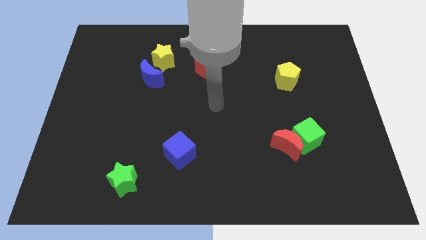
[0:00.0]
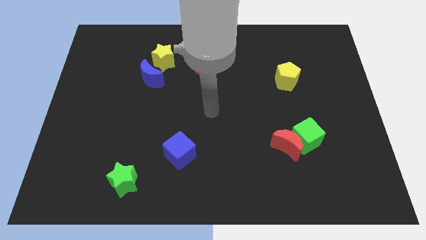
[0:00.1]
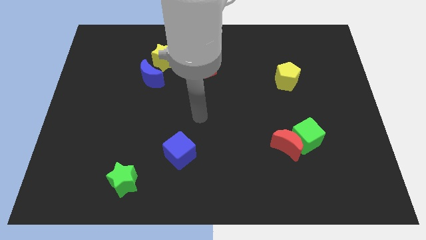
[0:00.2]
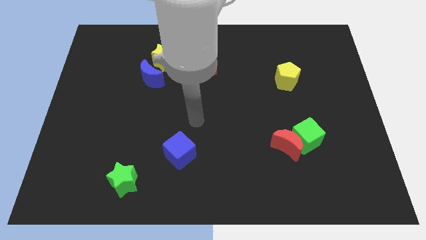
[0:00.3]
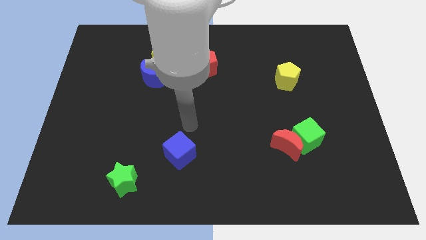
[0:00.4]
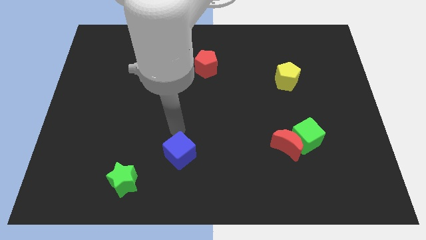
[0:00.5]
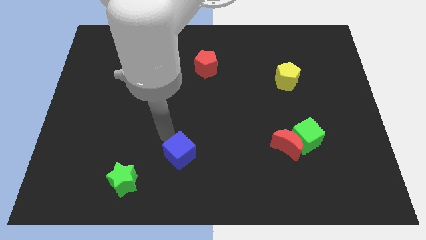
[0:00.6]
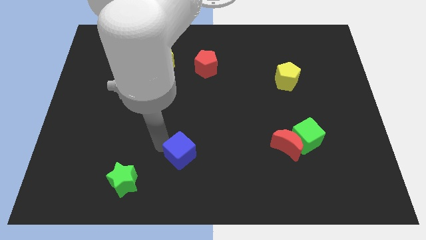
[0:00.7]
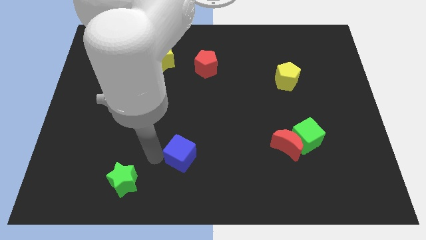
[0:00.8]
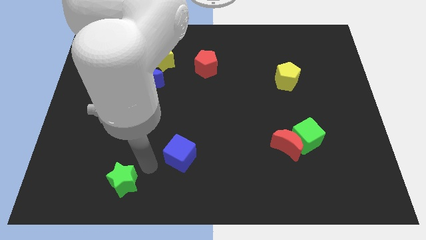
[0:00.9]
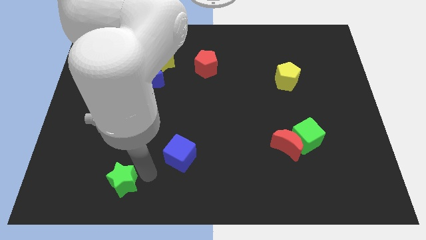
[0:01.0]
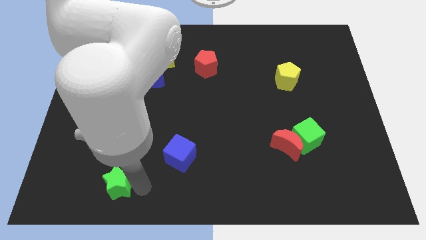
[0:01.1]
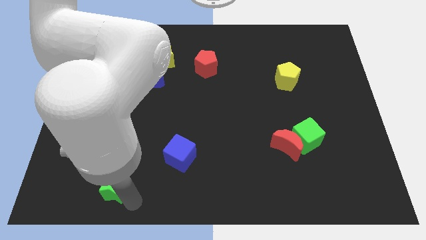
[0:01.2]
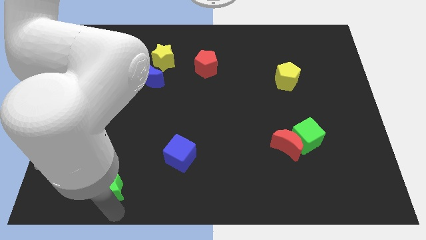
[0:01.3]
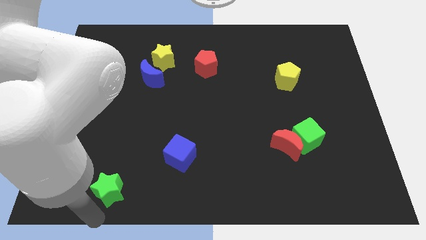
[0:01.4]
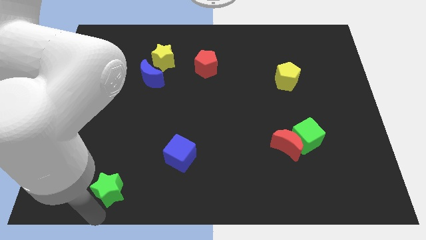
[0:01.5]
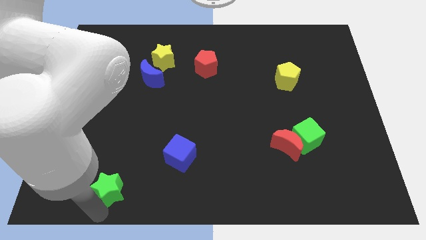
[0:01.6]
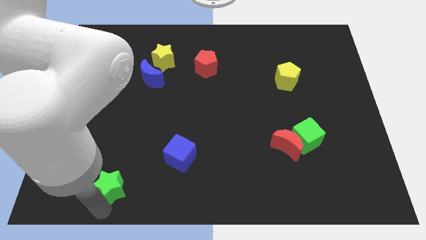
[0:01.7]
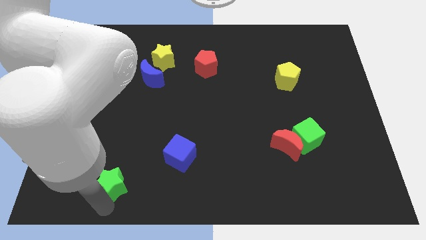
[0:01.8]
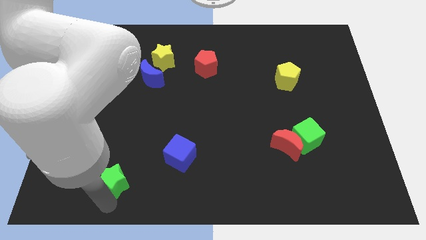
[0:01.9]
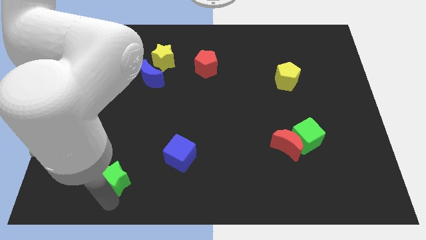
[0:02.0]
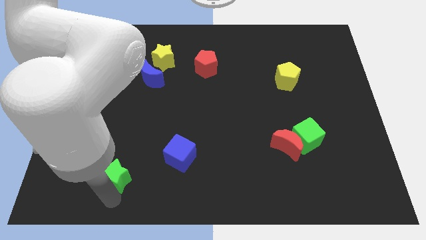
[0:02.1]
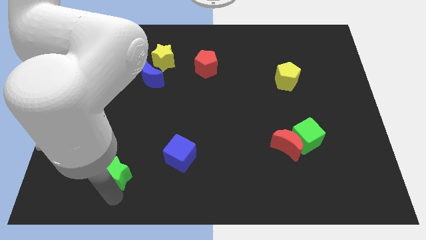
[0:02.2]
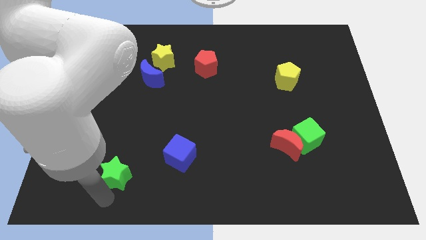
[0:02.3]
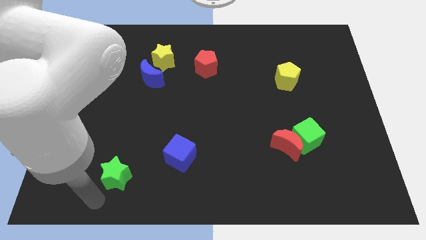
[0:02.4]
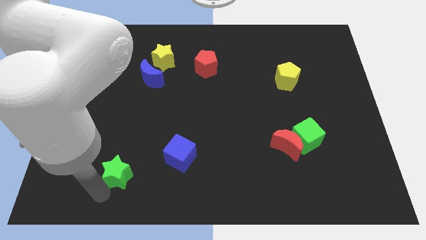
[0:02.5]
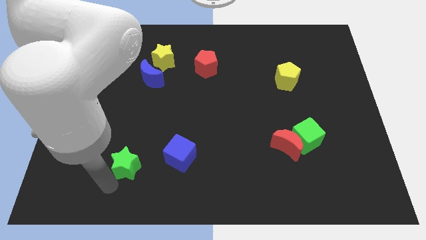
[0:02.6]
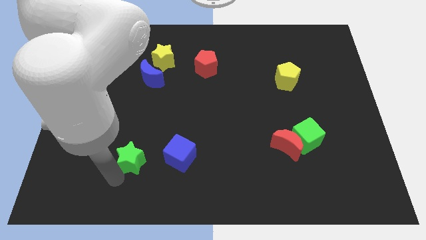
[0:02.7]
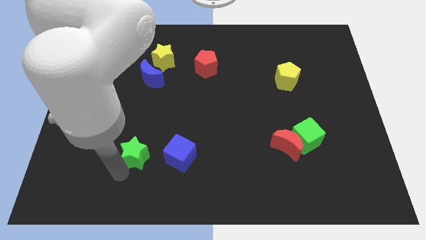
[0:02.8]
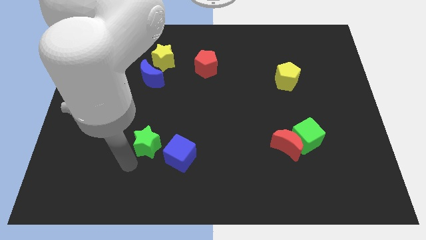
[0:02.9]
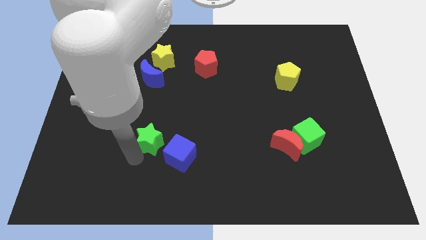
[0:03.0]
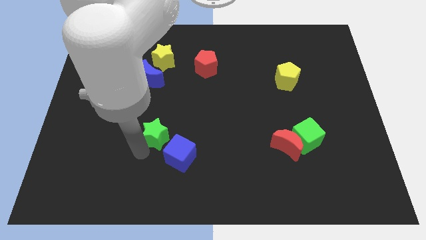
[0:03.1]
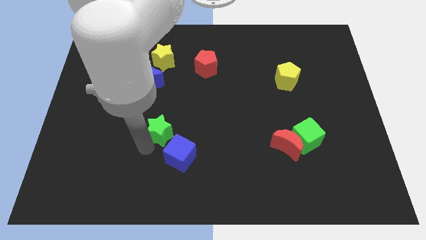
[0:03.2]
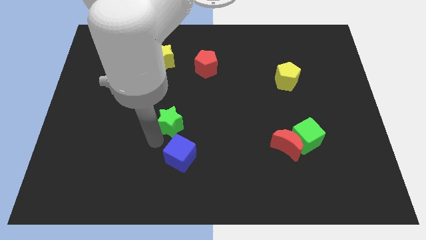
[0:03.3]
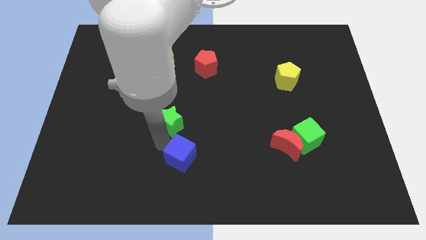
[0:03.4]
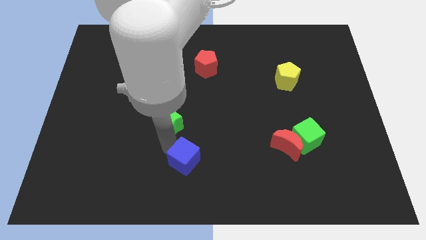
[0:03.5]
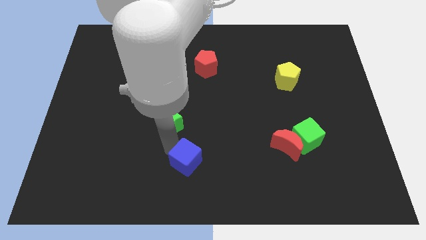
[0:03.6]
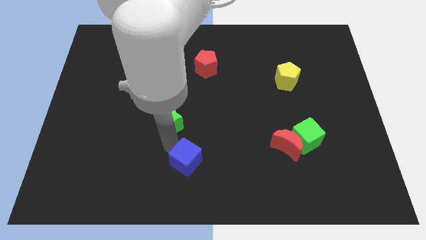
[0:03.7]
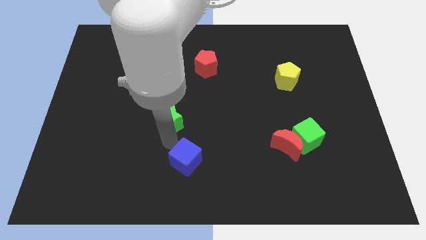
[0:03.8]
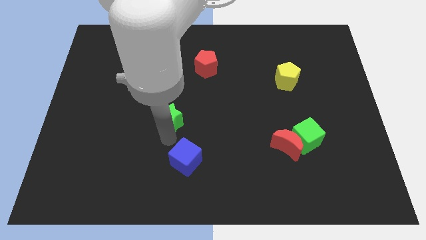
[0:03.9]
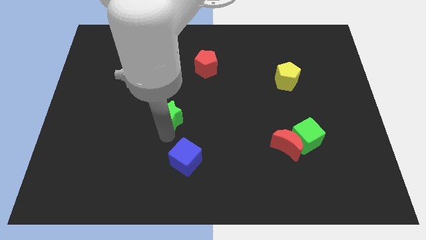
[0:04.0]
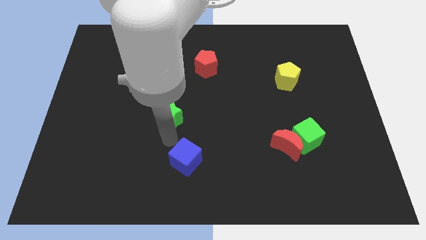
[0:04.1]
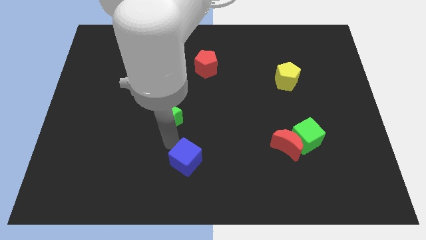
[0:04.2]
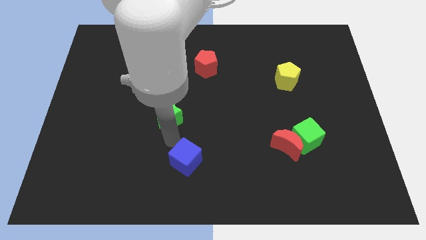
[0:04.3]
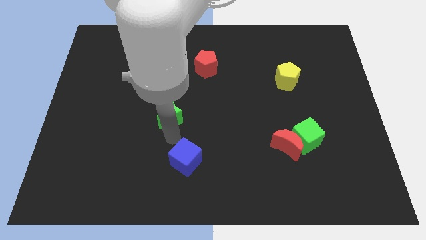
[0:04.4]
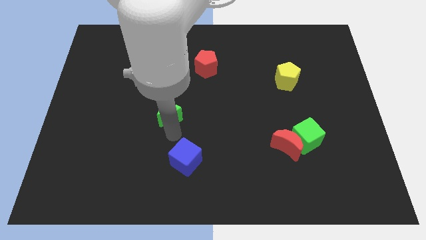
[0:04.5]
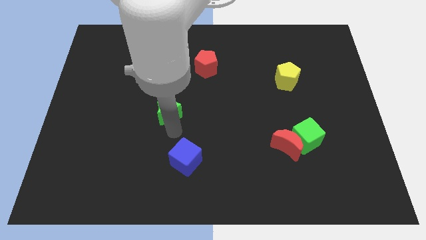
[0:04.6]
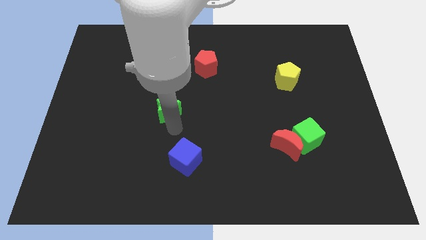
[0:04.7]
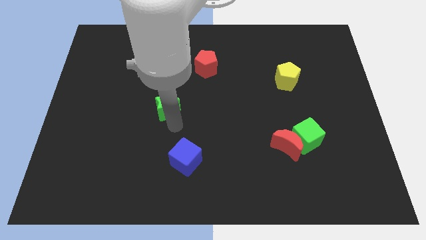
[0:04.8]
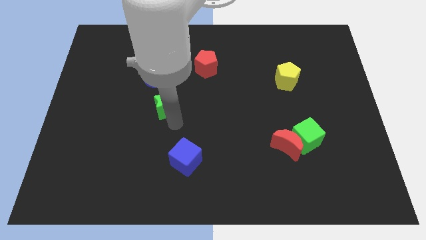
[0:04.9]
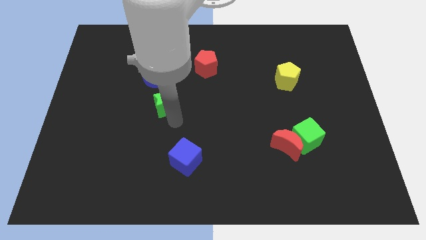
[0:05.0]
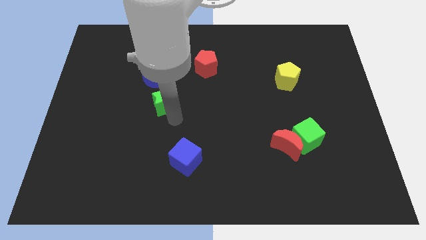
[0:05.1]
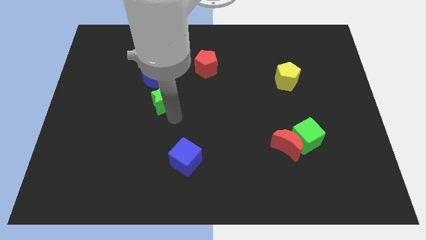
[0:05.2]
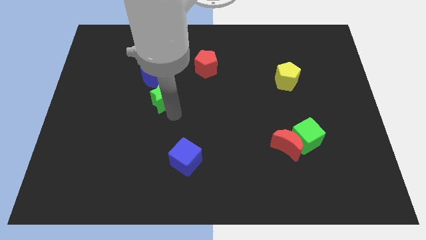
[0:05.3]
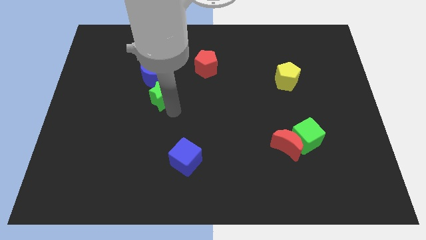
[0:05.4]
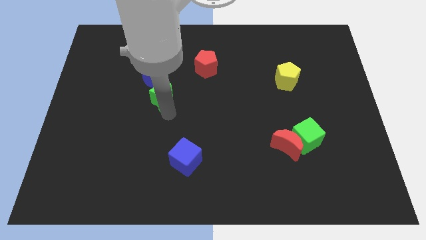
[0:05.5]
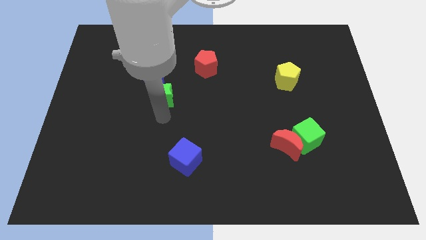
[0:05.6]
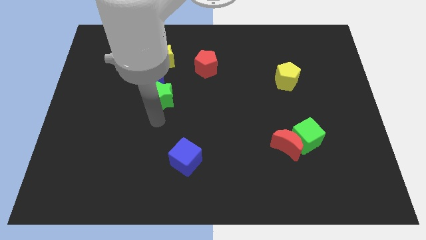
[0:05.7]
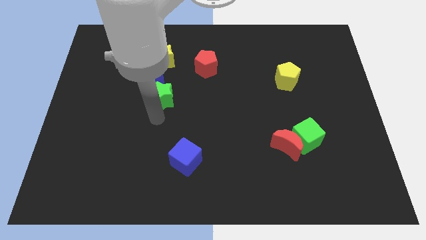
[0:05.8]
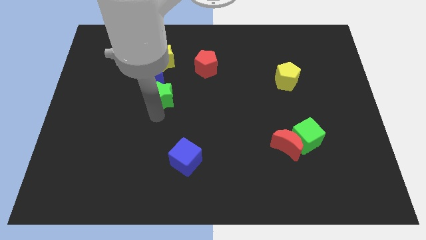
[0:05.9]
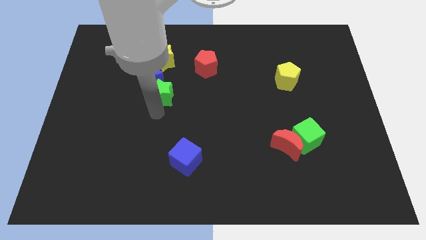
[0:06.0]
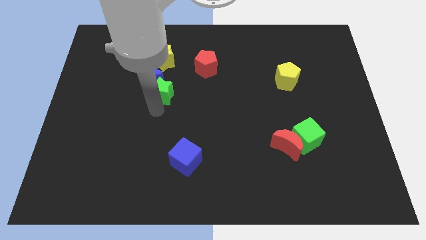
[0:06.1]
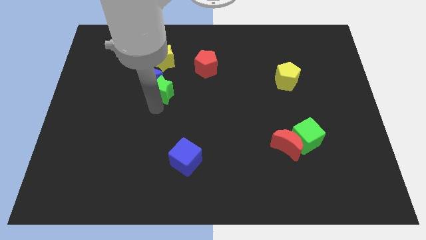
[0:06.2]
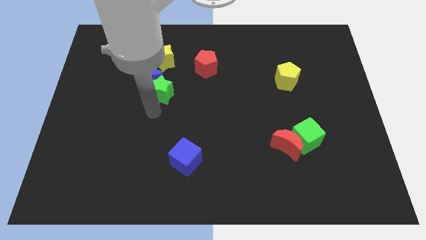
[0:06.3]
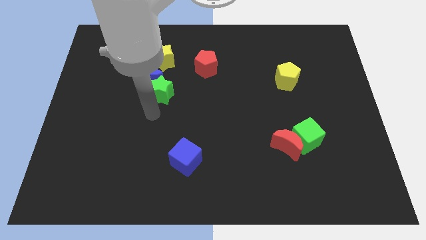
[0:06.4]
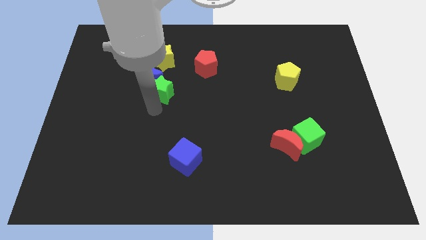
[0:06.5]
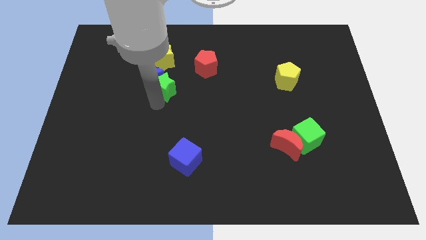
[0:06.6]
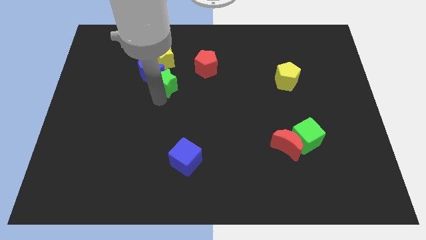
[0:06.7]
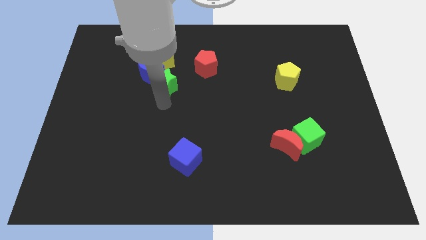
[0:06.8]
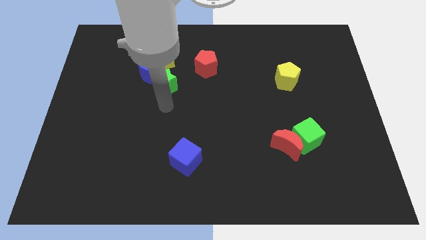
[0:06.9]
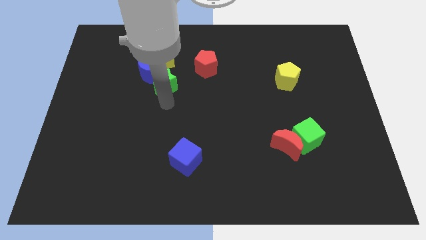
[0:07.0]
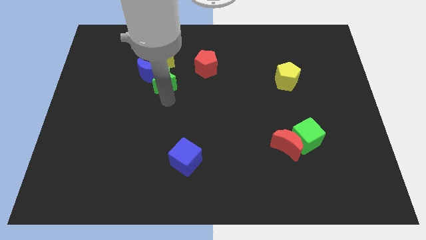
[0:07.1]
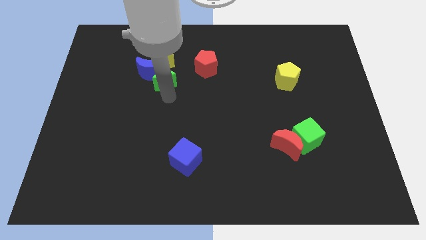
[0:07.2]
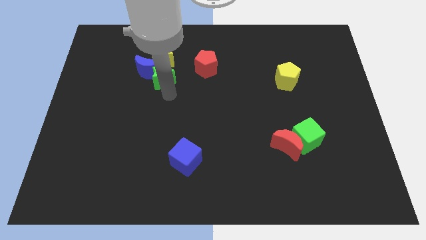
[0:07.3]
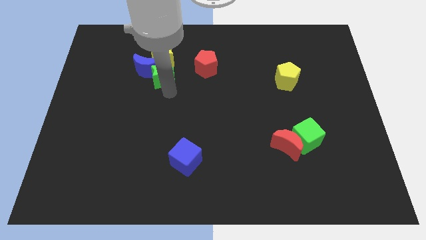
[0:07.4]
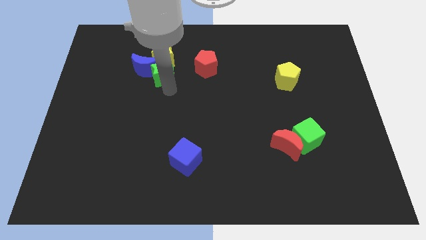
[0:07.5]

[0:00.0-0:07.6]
put the green star close to the yellow star
